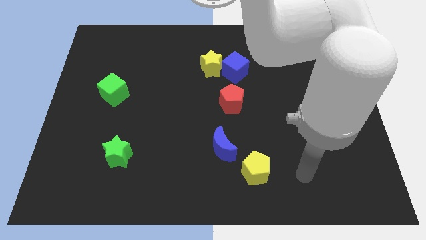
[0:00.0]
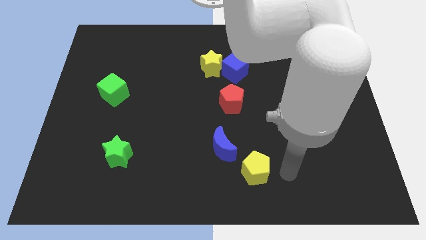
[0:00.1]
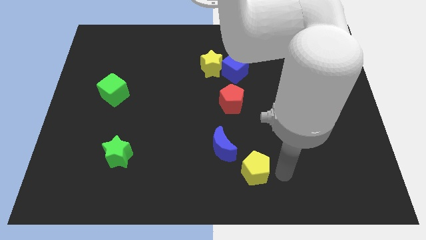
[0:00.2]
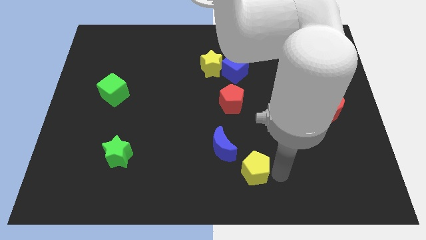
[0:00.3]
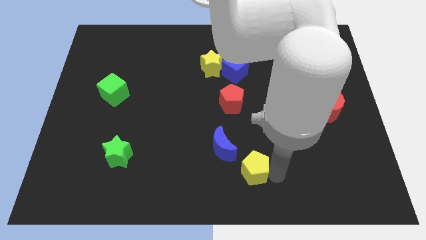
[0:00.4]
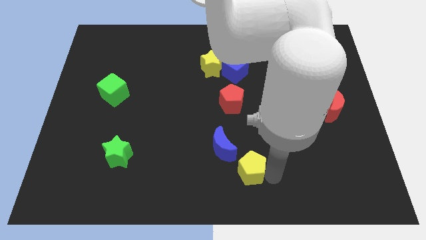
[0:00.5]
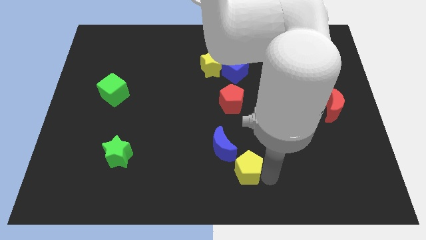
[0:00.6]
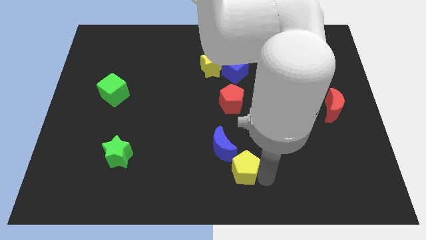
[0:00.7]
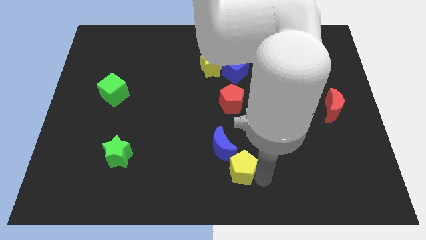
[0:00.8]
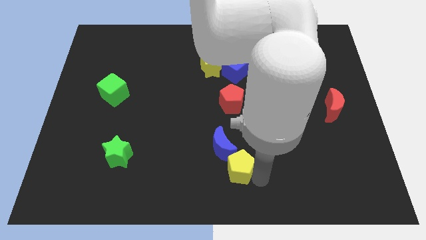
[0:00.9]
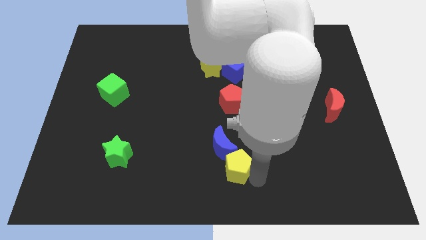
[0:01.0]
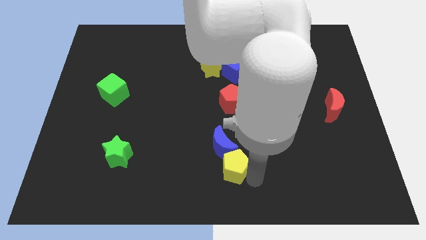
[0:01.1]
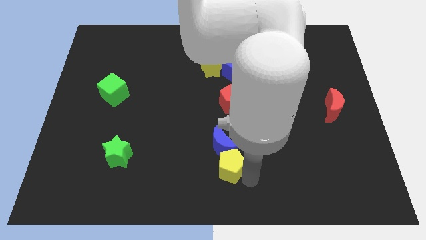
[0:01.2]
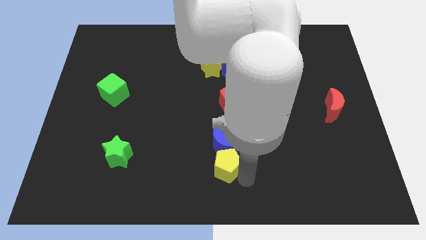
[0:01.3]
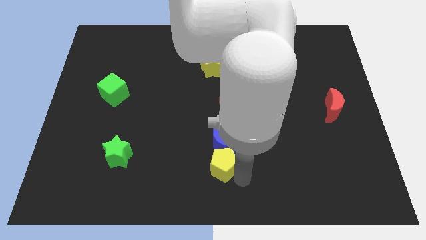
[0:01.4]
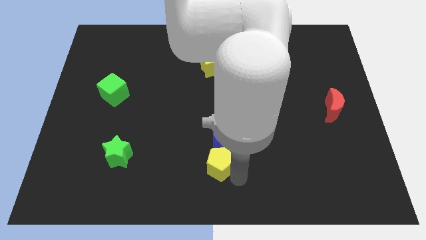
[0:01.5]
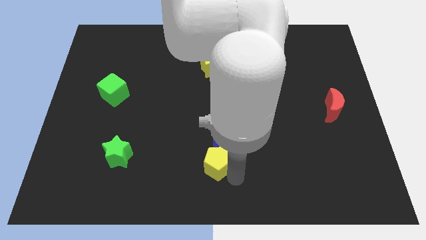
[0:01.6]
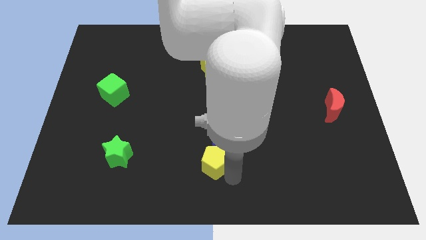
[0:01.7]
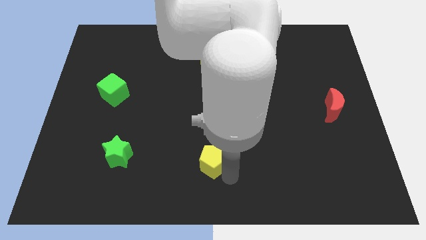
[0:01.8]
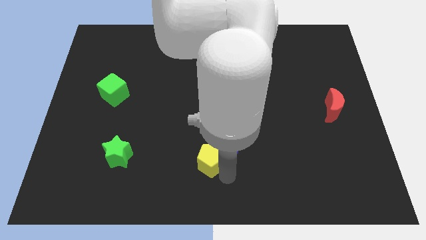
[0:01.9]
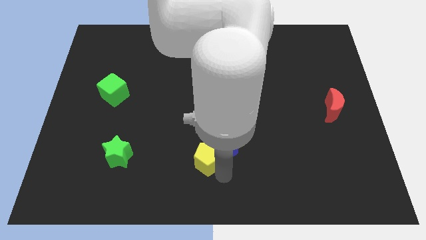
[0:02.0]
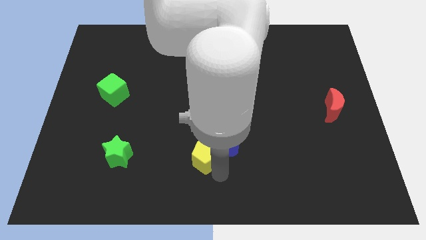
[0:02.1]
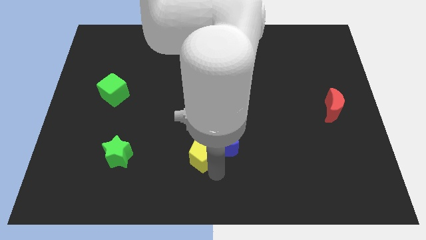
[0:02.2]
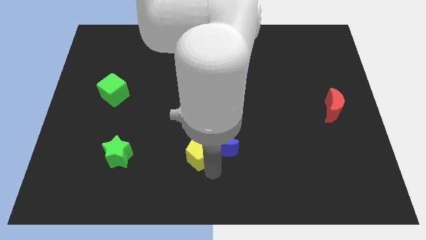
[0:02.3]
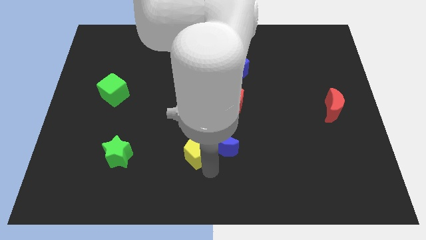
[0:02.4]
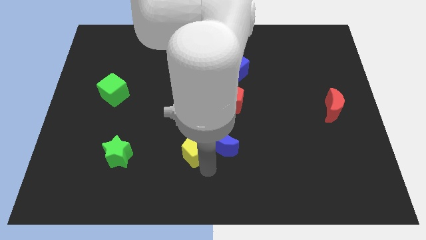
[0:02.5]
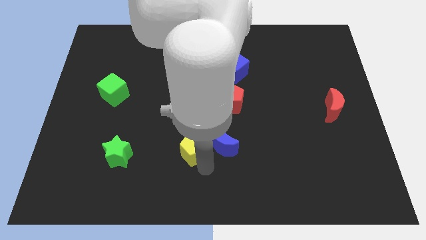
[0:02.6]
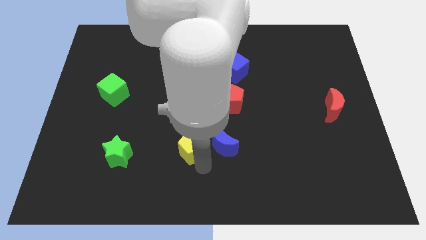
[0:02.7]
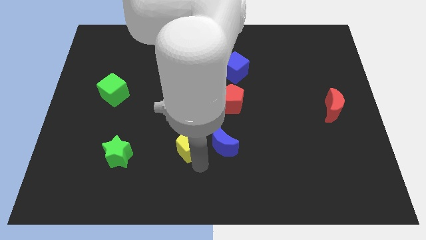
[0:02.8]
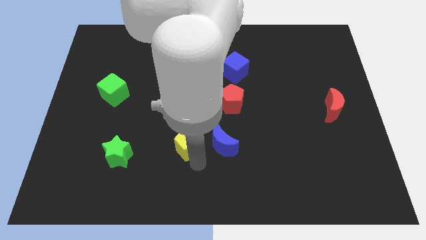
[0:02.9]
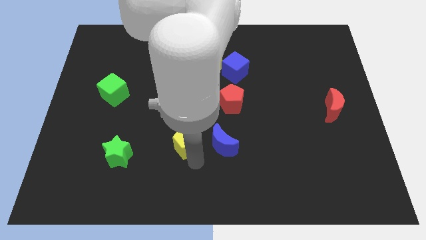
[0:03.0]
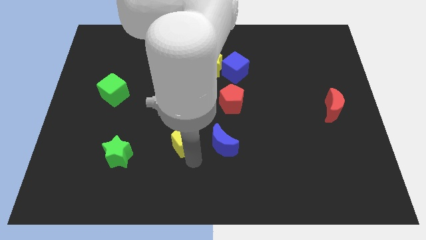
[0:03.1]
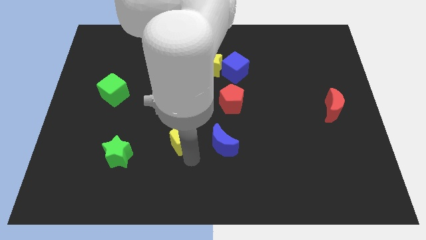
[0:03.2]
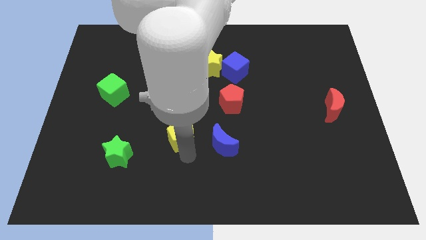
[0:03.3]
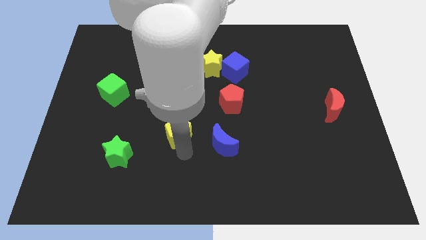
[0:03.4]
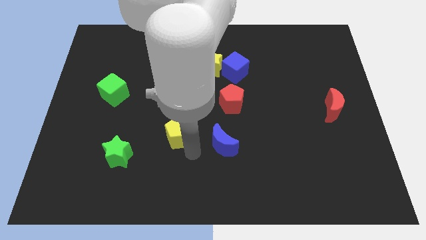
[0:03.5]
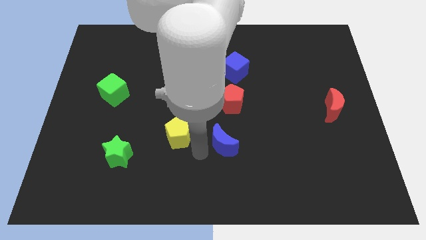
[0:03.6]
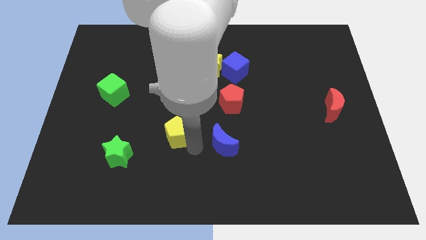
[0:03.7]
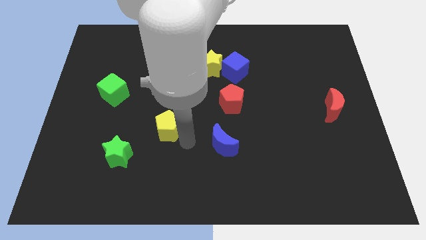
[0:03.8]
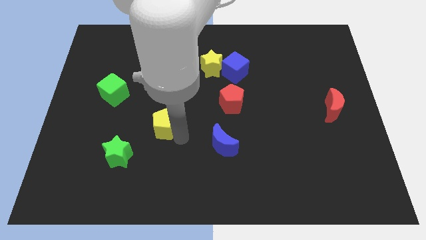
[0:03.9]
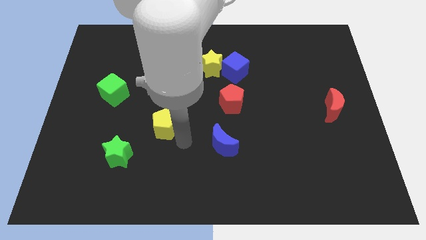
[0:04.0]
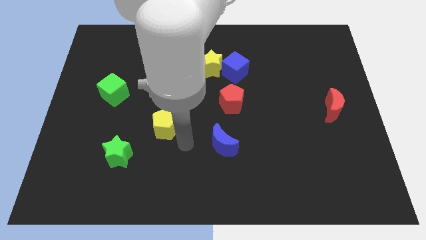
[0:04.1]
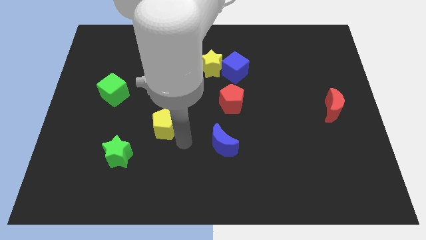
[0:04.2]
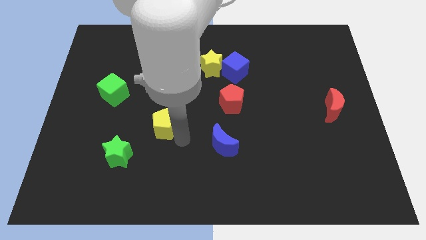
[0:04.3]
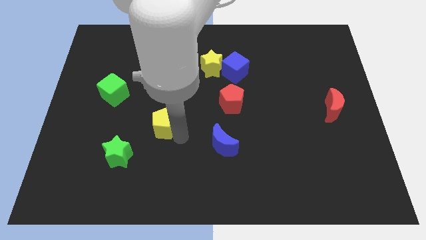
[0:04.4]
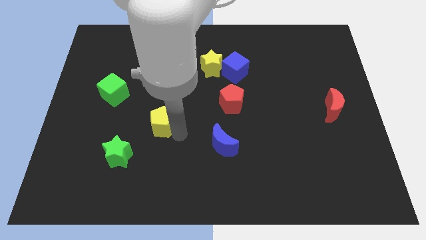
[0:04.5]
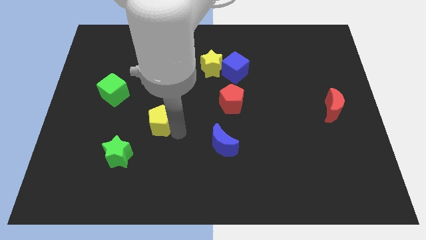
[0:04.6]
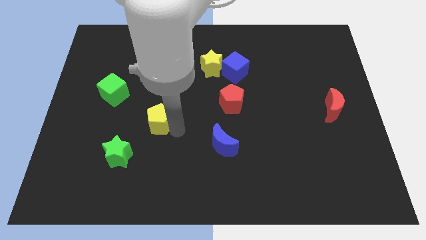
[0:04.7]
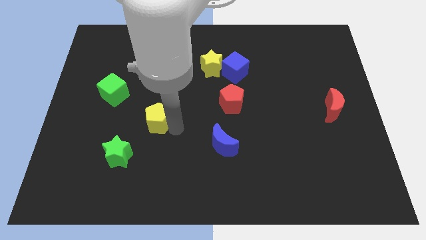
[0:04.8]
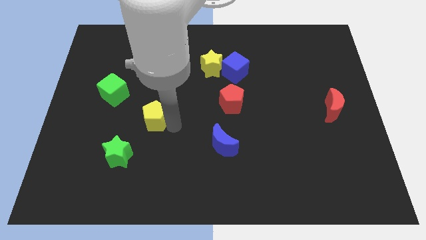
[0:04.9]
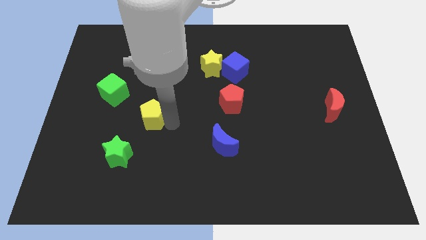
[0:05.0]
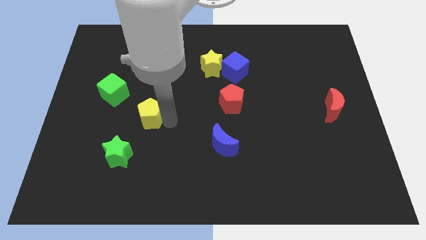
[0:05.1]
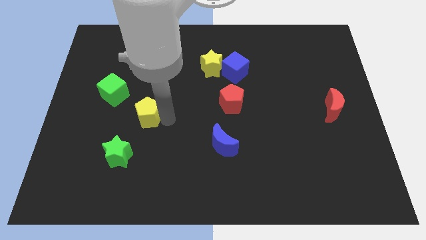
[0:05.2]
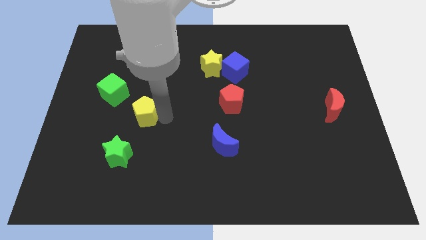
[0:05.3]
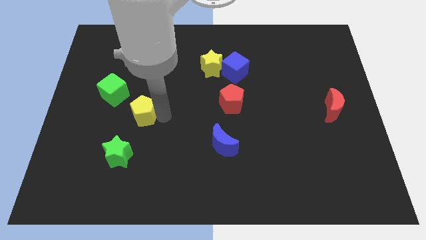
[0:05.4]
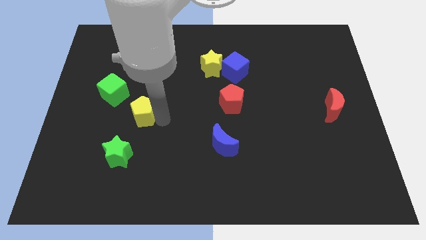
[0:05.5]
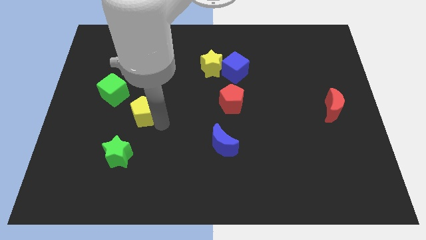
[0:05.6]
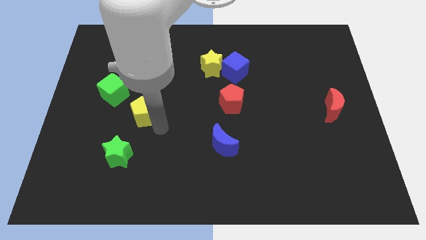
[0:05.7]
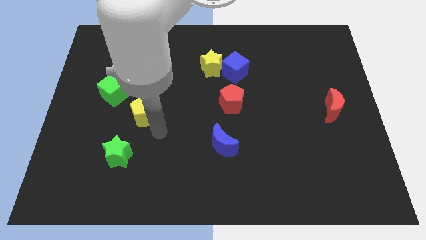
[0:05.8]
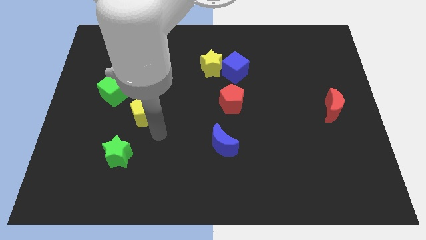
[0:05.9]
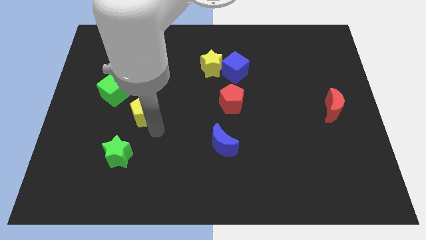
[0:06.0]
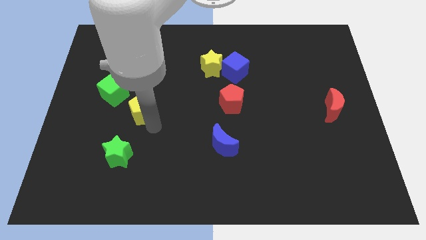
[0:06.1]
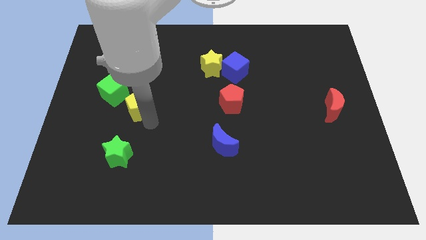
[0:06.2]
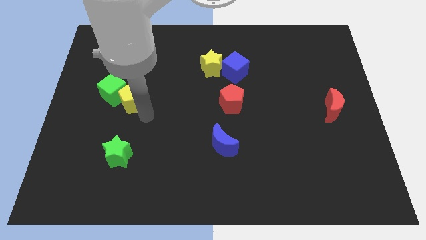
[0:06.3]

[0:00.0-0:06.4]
slide the yellow pentagon close to the green cube
